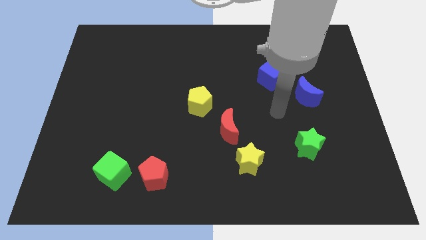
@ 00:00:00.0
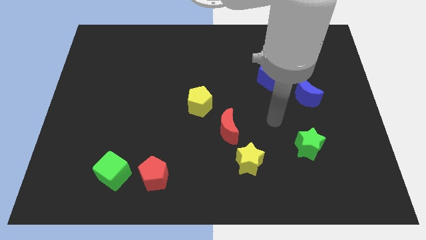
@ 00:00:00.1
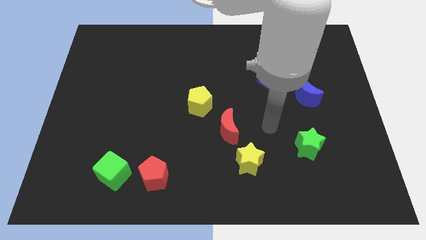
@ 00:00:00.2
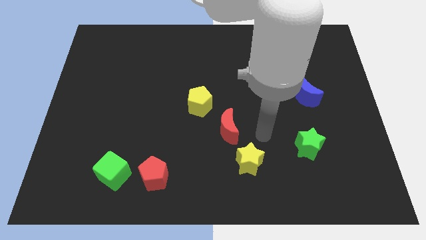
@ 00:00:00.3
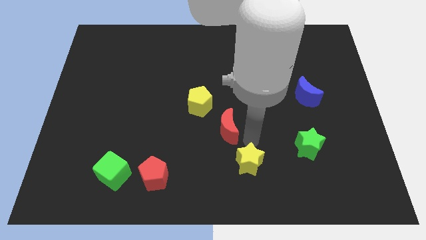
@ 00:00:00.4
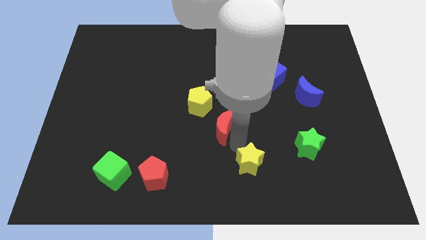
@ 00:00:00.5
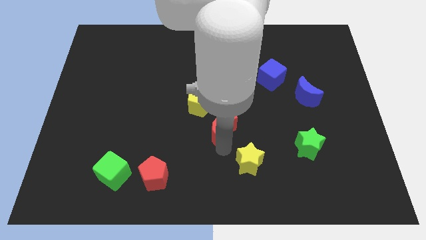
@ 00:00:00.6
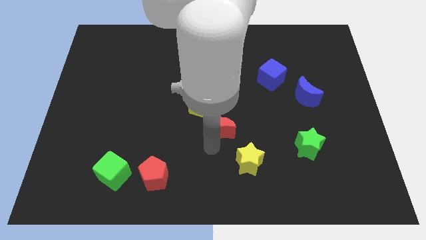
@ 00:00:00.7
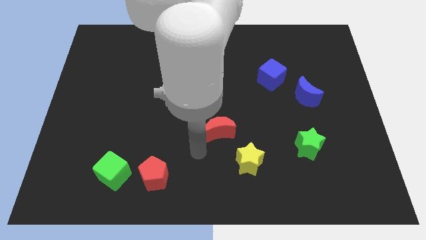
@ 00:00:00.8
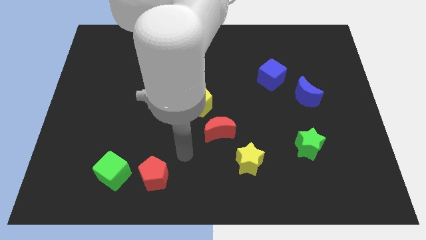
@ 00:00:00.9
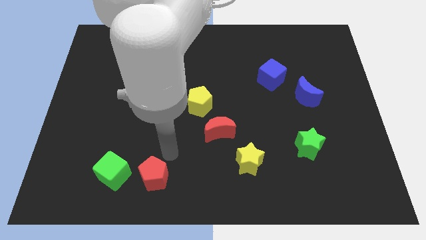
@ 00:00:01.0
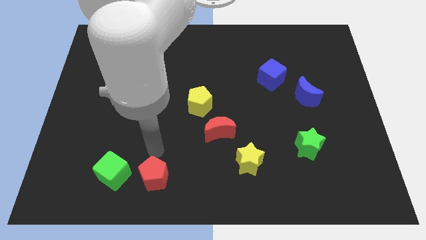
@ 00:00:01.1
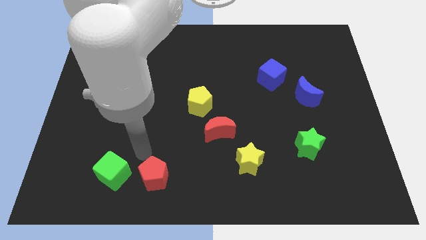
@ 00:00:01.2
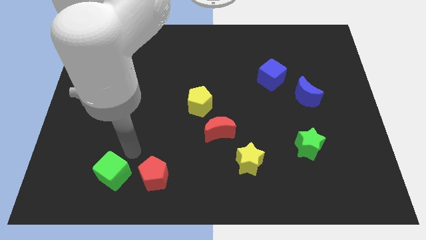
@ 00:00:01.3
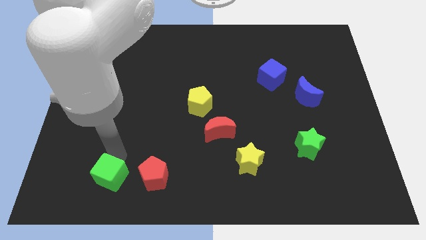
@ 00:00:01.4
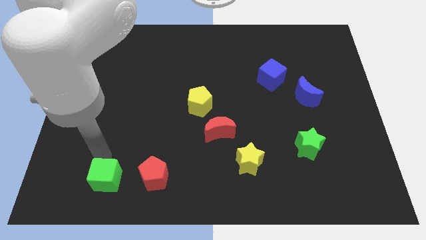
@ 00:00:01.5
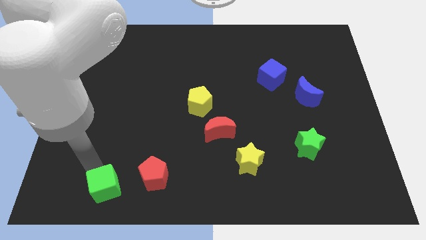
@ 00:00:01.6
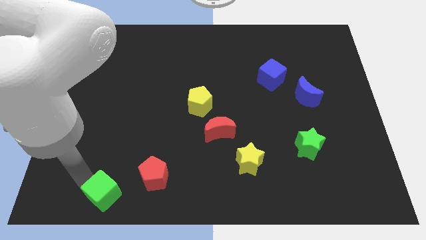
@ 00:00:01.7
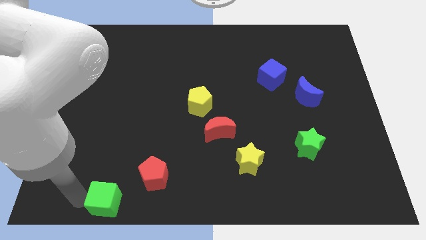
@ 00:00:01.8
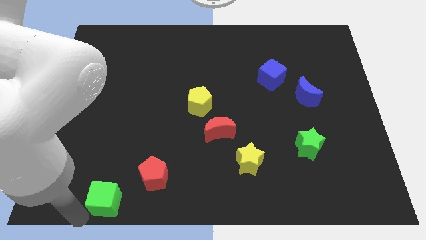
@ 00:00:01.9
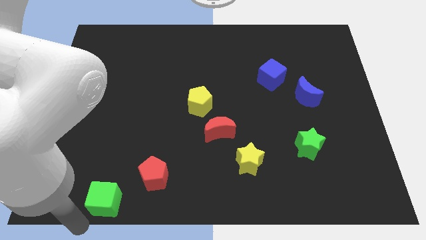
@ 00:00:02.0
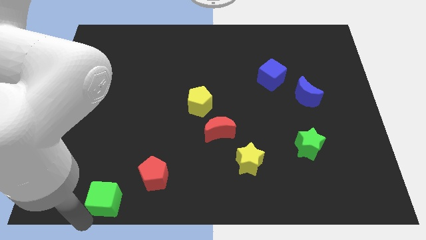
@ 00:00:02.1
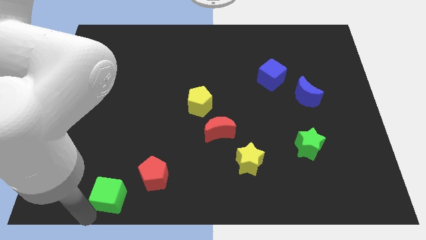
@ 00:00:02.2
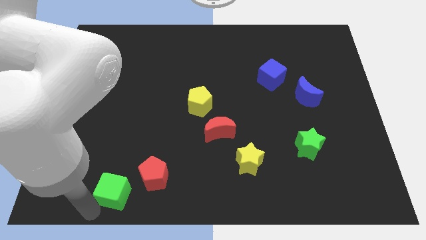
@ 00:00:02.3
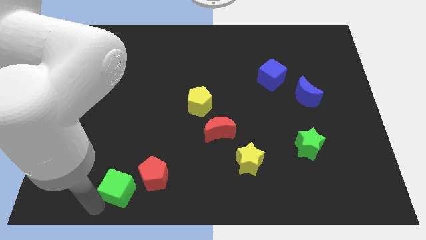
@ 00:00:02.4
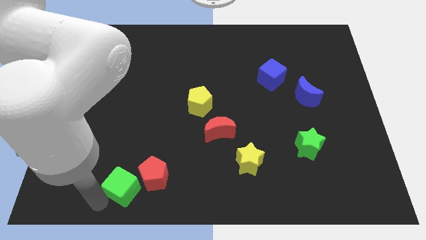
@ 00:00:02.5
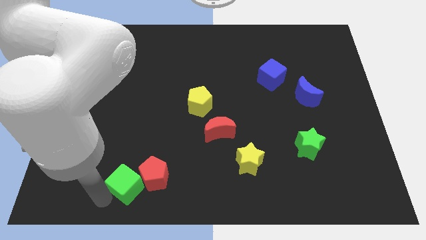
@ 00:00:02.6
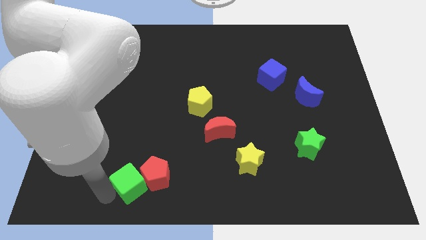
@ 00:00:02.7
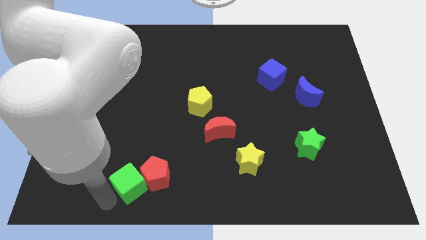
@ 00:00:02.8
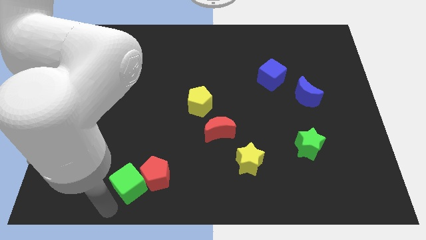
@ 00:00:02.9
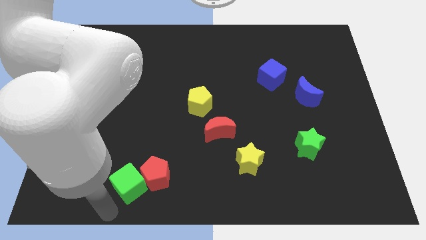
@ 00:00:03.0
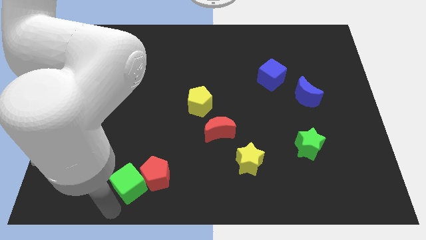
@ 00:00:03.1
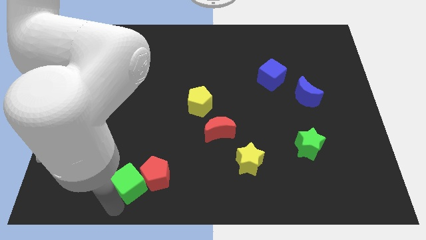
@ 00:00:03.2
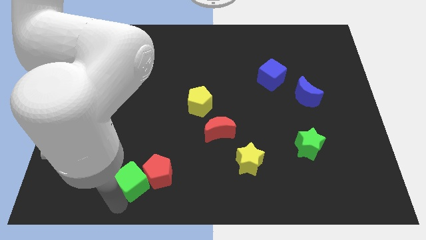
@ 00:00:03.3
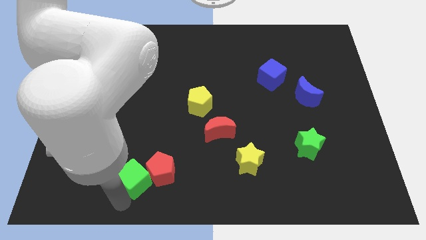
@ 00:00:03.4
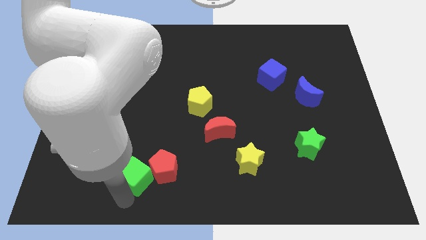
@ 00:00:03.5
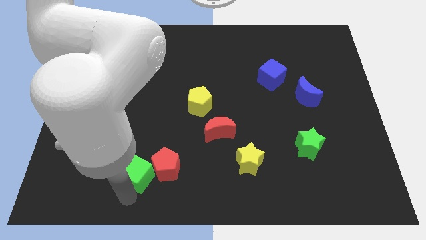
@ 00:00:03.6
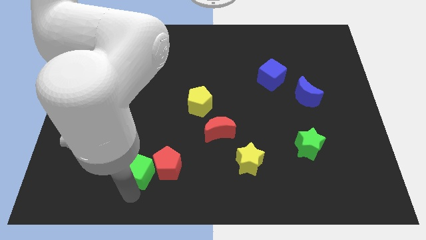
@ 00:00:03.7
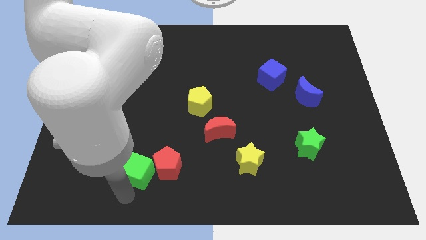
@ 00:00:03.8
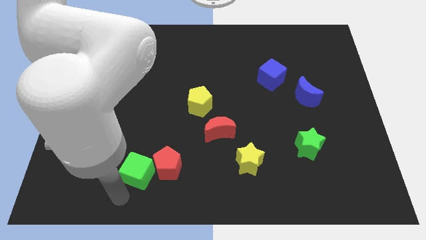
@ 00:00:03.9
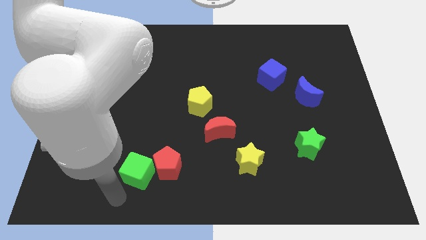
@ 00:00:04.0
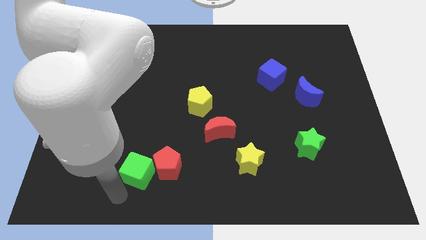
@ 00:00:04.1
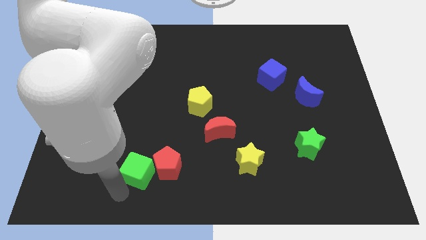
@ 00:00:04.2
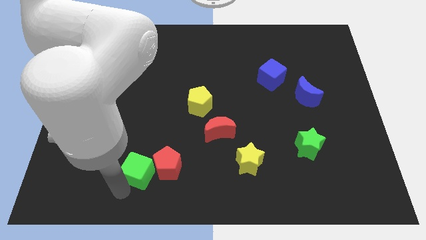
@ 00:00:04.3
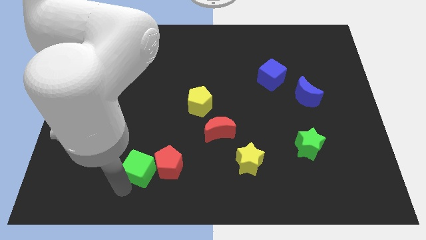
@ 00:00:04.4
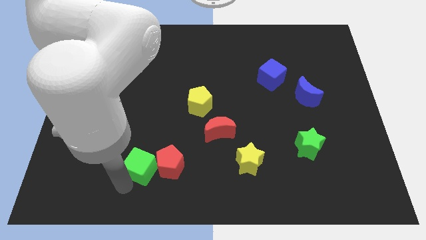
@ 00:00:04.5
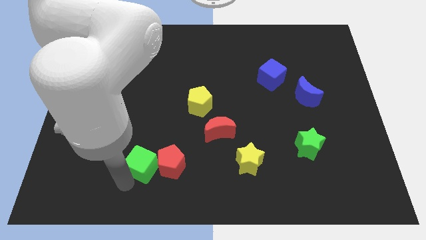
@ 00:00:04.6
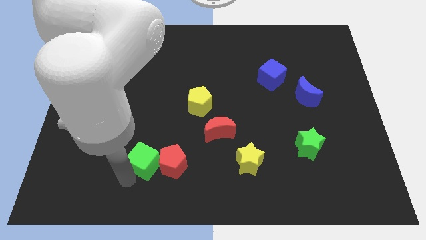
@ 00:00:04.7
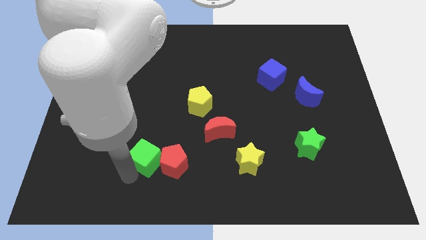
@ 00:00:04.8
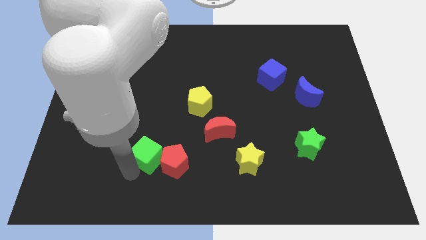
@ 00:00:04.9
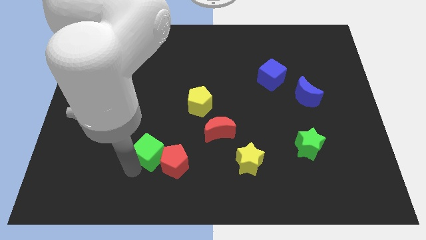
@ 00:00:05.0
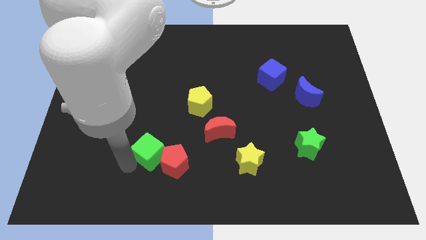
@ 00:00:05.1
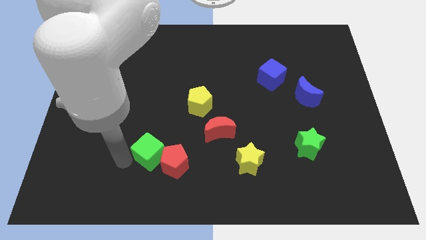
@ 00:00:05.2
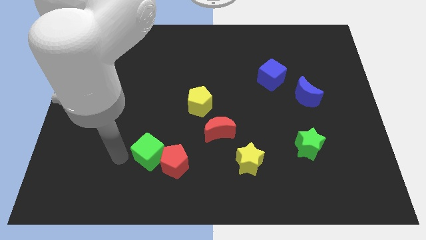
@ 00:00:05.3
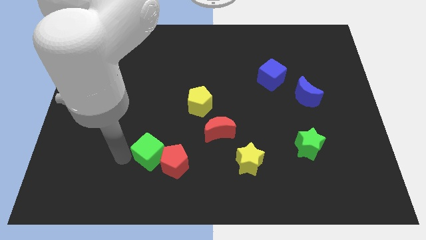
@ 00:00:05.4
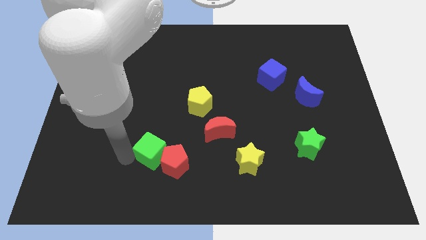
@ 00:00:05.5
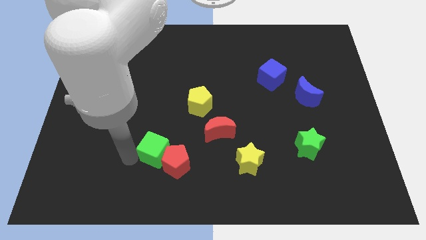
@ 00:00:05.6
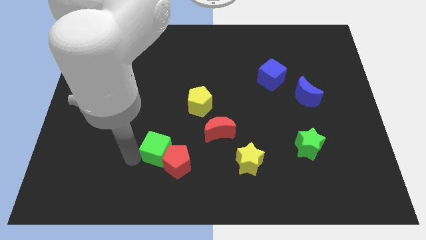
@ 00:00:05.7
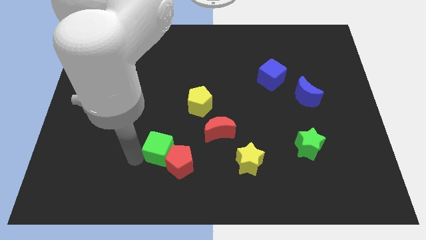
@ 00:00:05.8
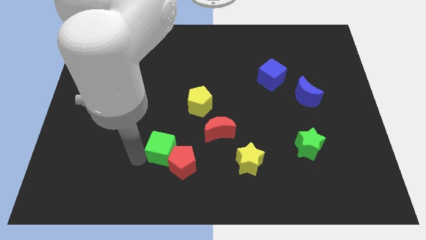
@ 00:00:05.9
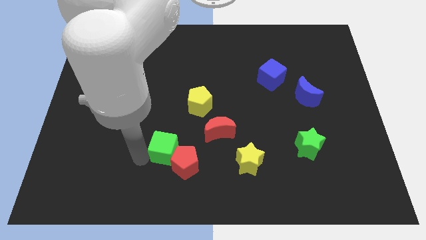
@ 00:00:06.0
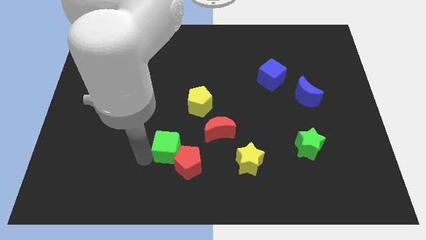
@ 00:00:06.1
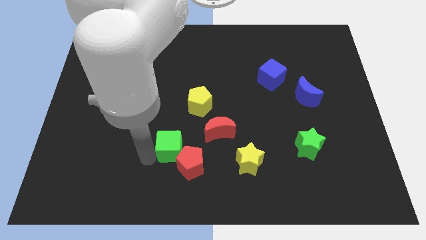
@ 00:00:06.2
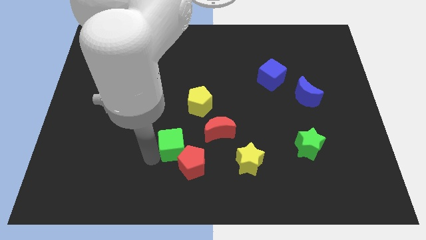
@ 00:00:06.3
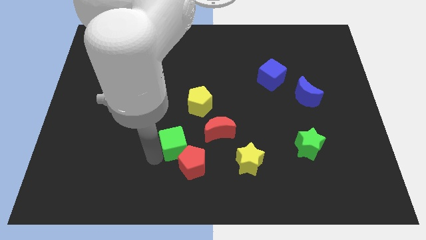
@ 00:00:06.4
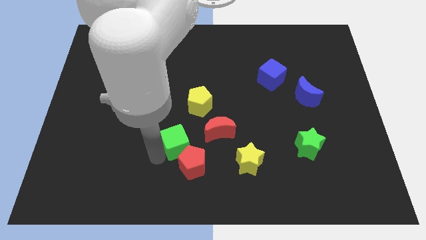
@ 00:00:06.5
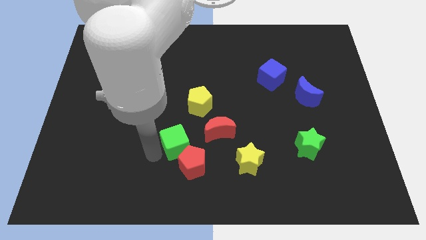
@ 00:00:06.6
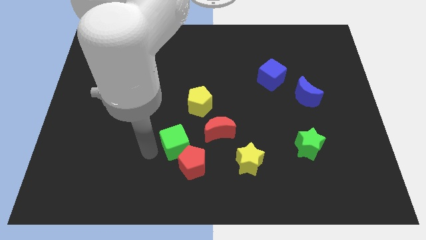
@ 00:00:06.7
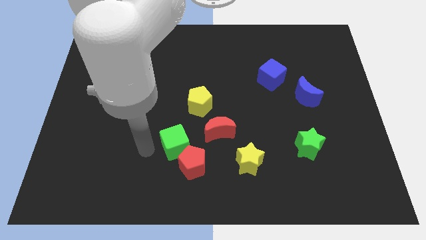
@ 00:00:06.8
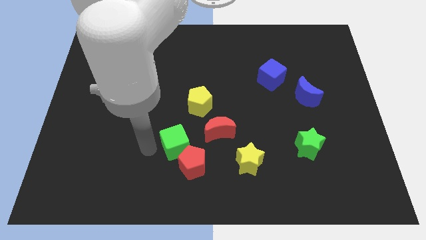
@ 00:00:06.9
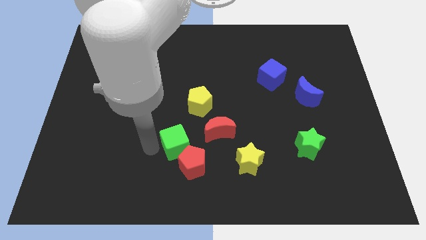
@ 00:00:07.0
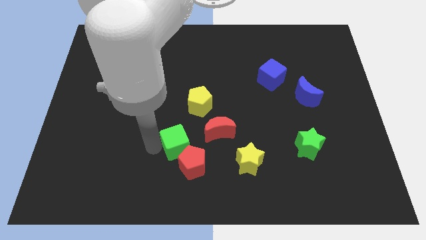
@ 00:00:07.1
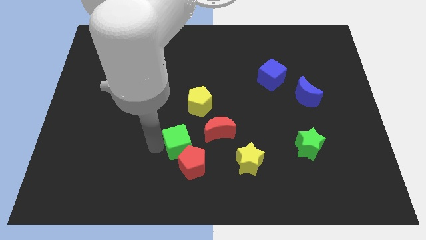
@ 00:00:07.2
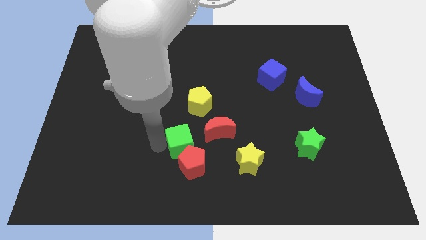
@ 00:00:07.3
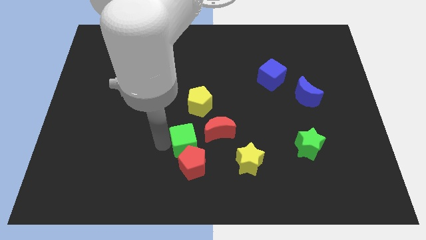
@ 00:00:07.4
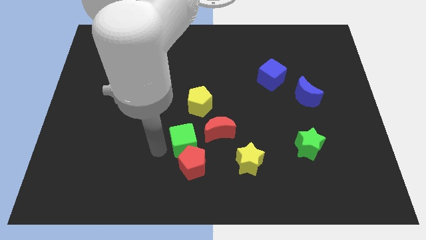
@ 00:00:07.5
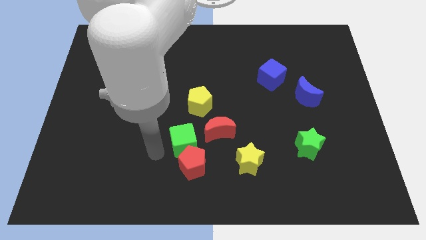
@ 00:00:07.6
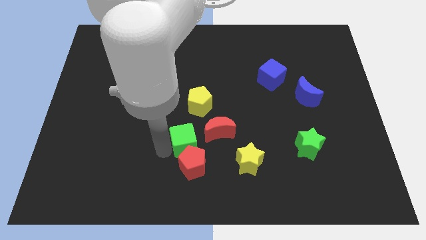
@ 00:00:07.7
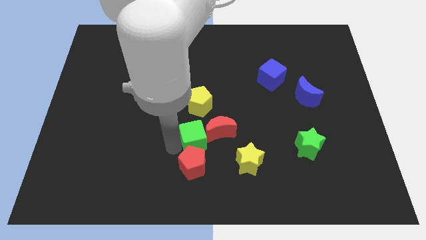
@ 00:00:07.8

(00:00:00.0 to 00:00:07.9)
push the green cube to the red moon
